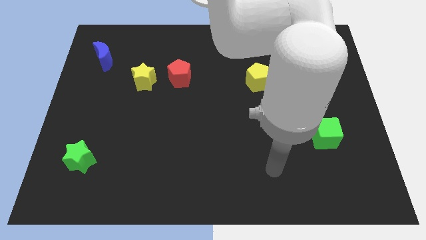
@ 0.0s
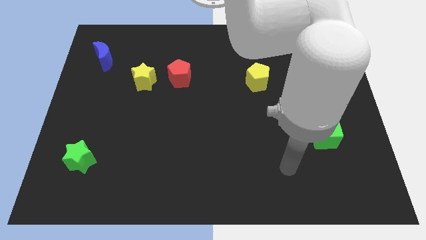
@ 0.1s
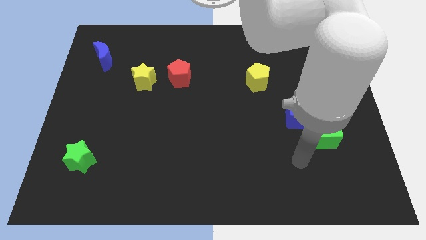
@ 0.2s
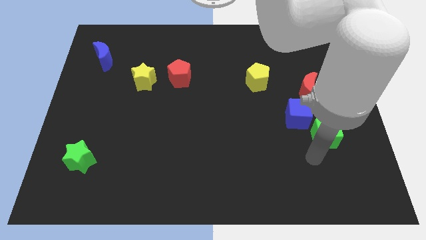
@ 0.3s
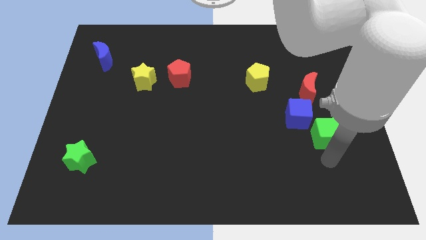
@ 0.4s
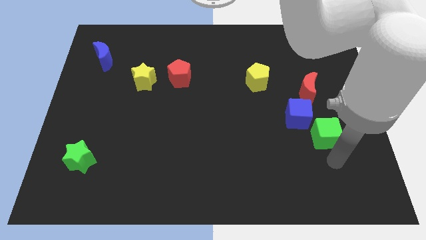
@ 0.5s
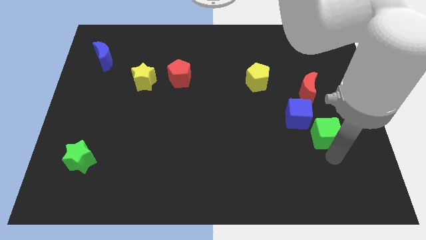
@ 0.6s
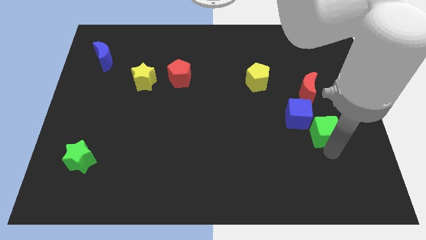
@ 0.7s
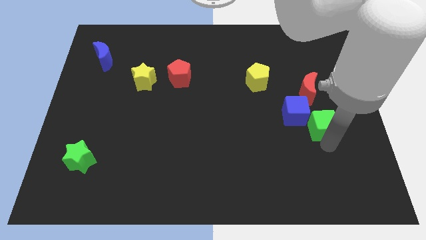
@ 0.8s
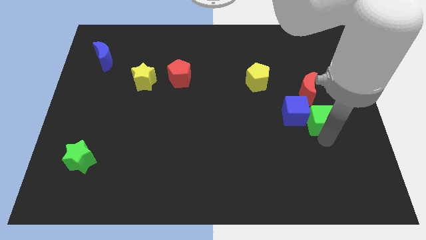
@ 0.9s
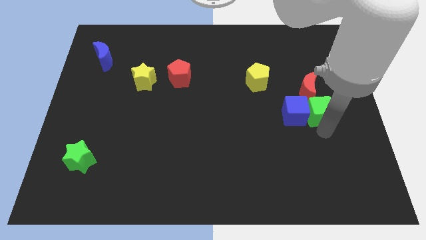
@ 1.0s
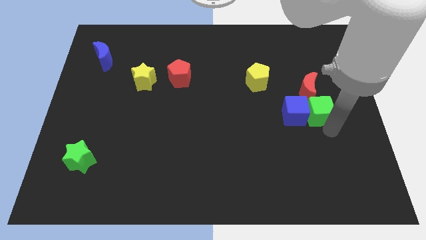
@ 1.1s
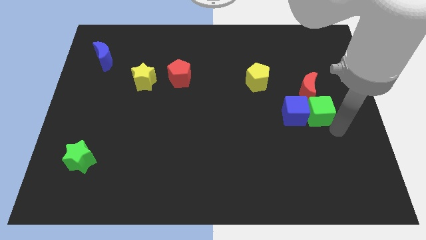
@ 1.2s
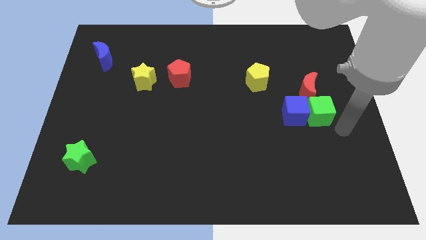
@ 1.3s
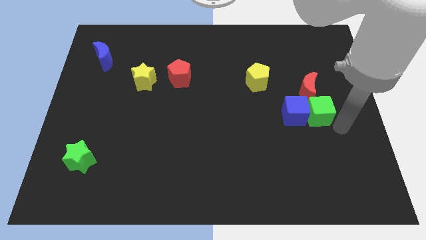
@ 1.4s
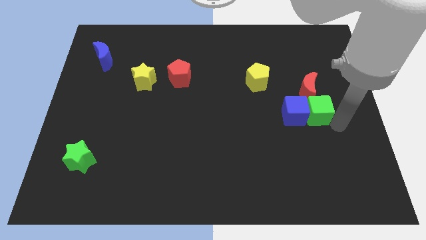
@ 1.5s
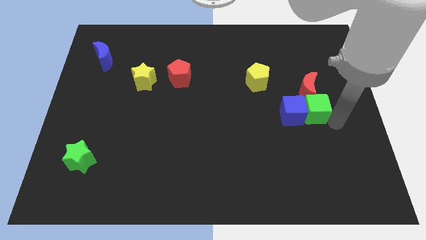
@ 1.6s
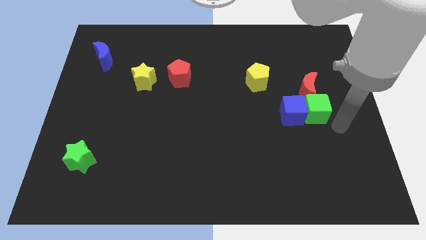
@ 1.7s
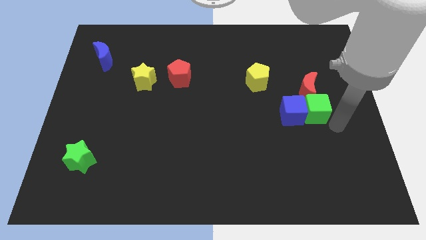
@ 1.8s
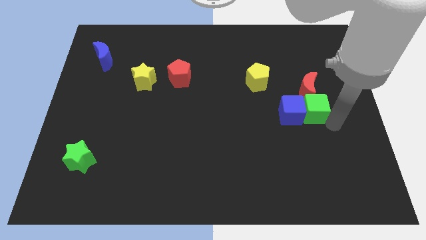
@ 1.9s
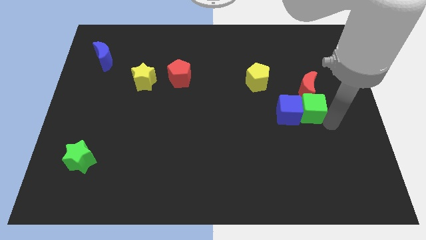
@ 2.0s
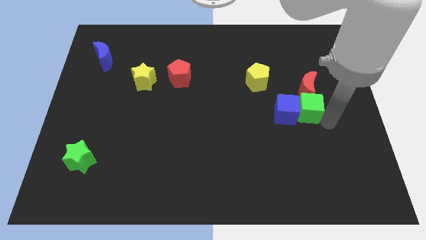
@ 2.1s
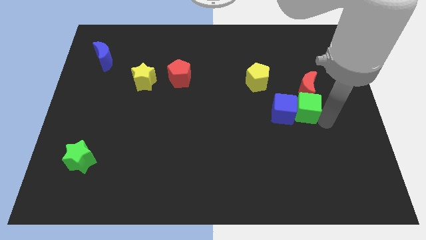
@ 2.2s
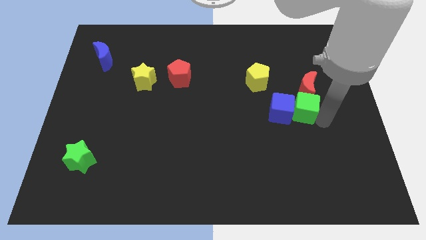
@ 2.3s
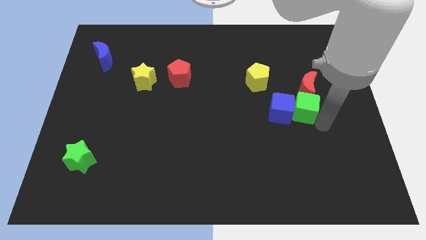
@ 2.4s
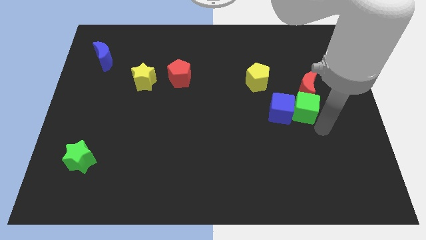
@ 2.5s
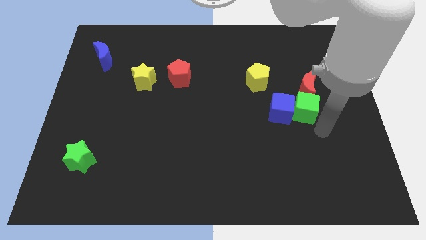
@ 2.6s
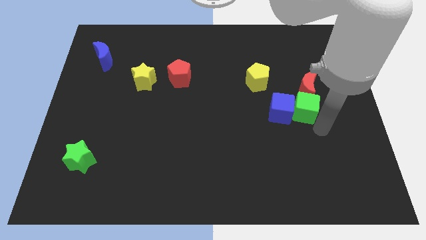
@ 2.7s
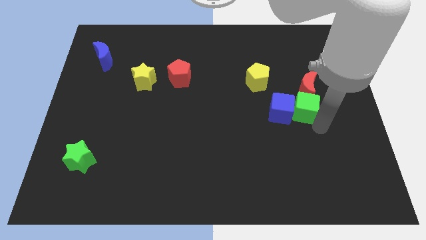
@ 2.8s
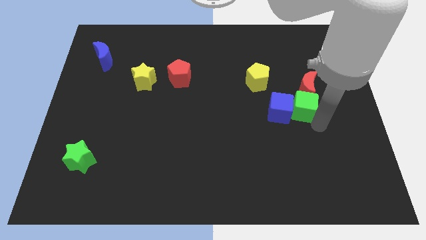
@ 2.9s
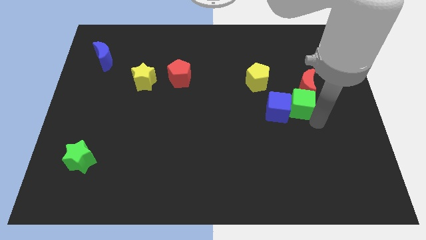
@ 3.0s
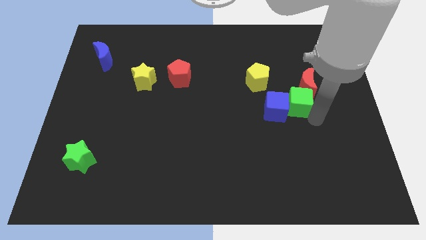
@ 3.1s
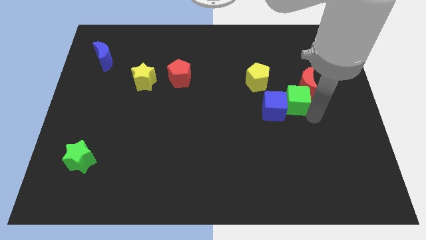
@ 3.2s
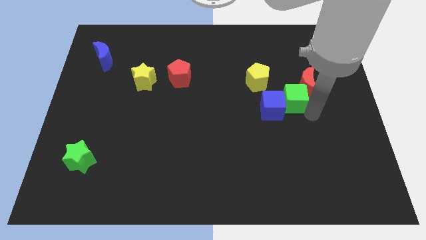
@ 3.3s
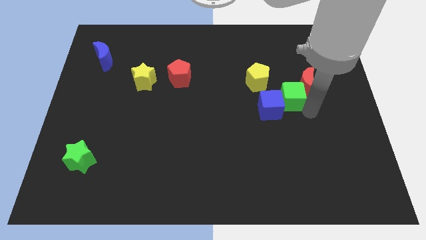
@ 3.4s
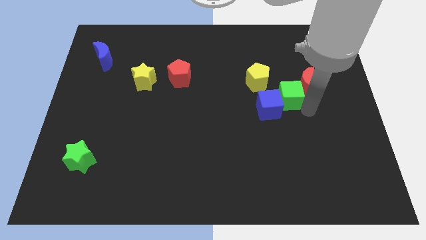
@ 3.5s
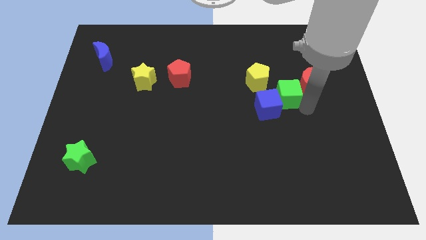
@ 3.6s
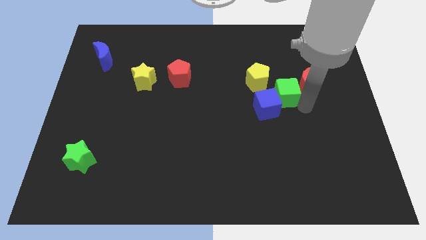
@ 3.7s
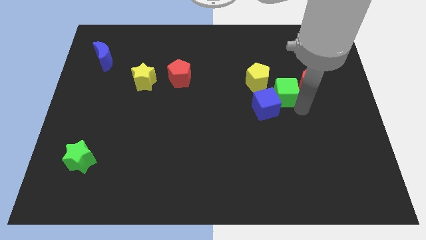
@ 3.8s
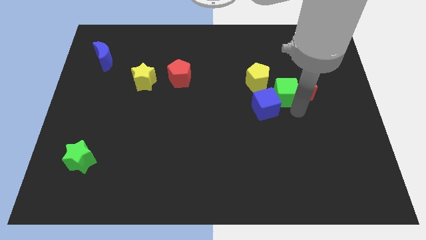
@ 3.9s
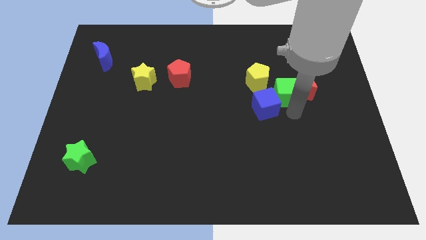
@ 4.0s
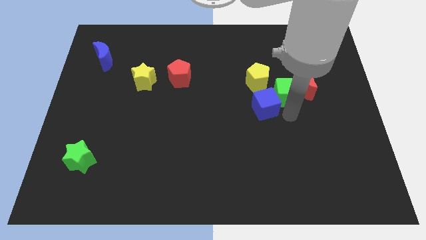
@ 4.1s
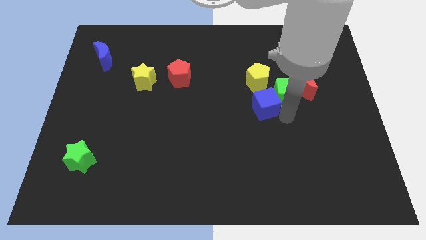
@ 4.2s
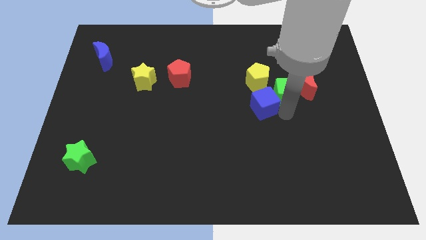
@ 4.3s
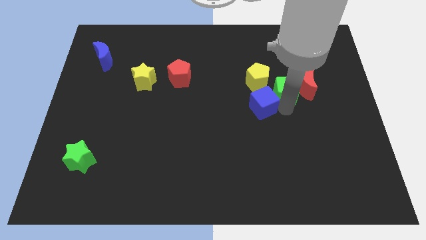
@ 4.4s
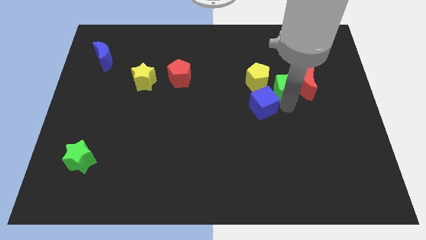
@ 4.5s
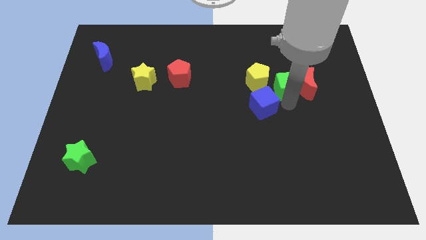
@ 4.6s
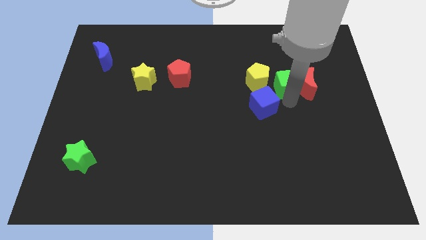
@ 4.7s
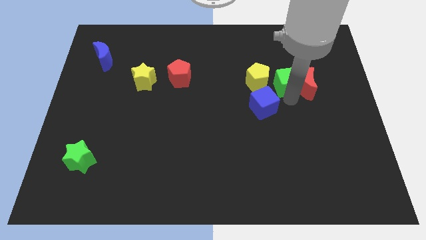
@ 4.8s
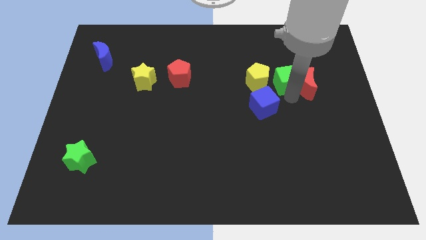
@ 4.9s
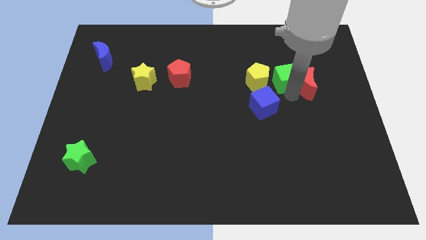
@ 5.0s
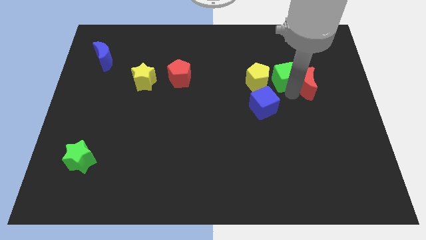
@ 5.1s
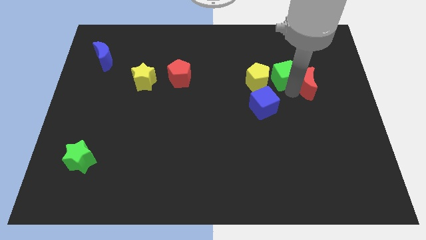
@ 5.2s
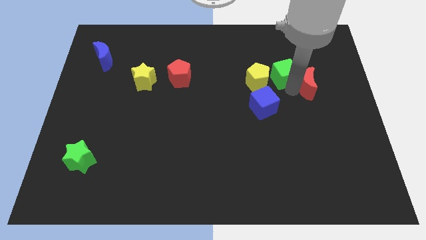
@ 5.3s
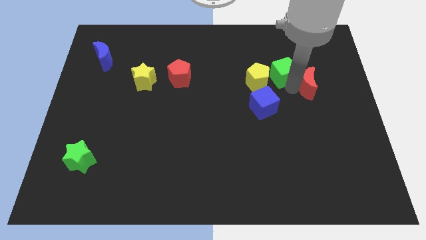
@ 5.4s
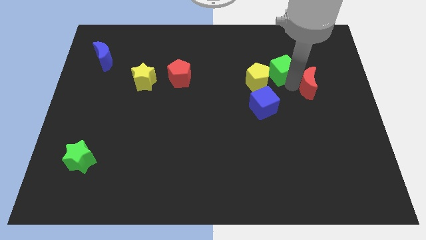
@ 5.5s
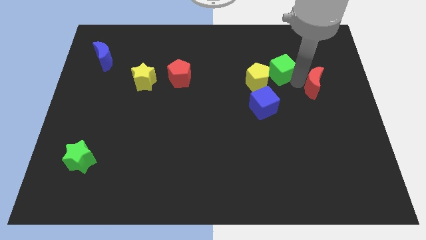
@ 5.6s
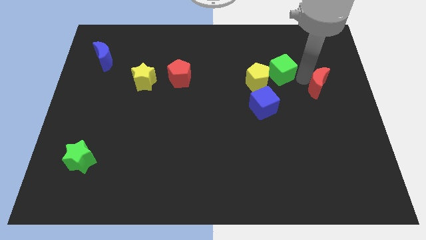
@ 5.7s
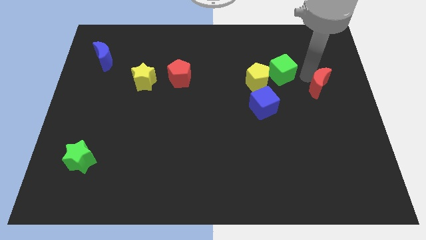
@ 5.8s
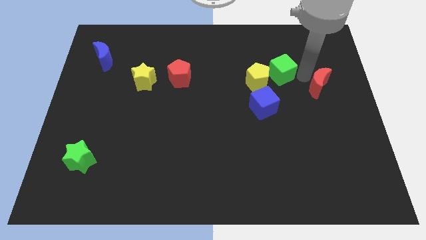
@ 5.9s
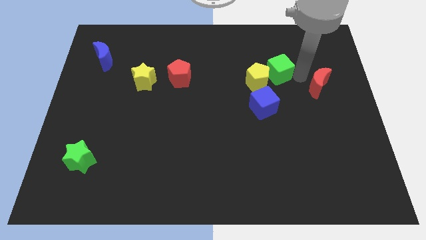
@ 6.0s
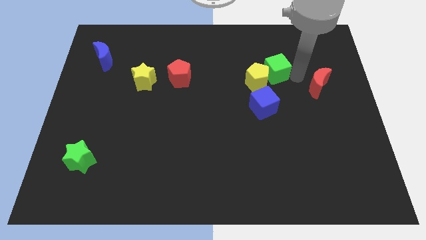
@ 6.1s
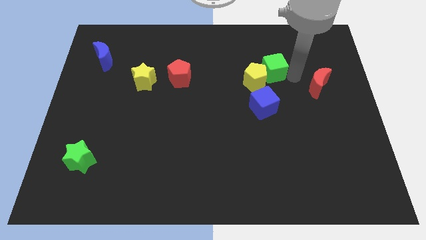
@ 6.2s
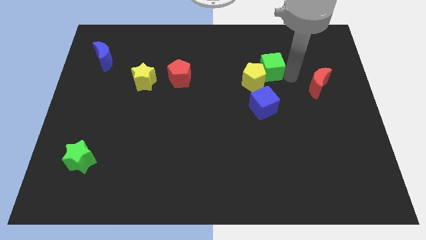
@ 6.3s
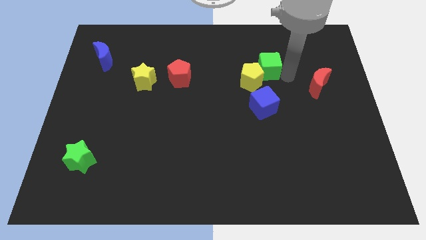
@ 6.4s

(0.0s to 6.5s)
push the green cube upwards and to the left

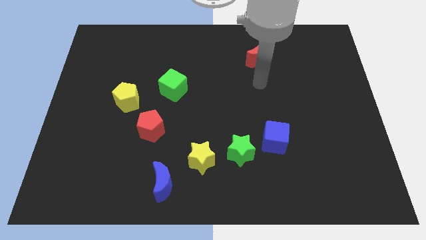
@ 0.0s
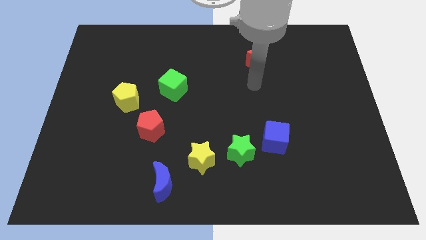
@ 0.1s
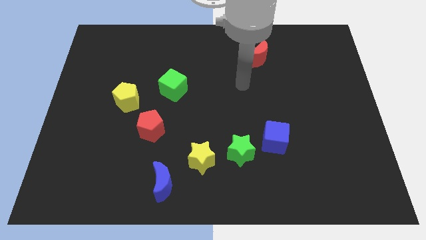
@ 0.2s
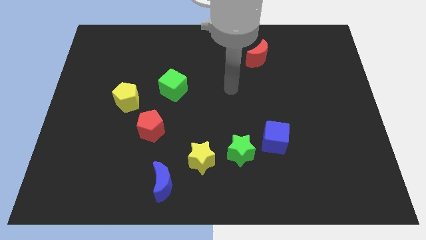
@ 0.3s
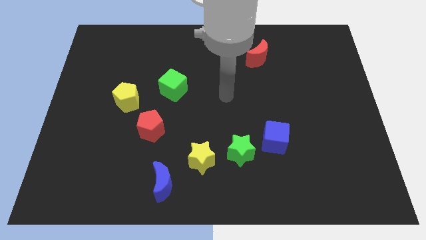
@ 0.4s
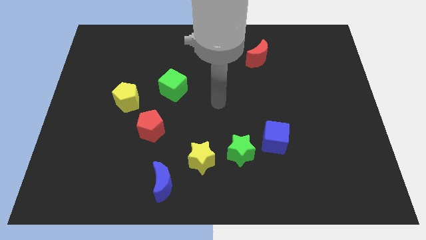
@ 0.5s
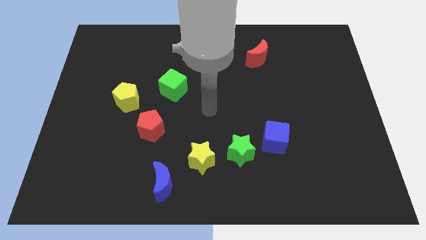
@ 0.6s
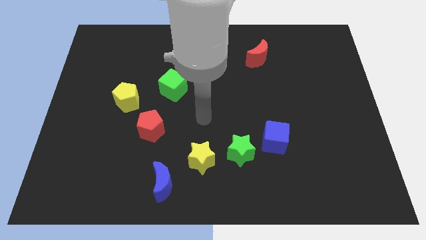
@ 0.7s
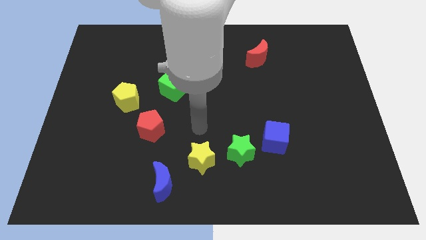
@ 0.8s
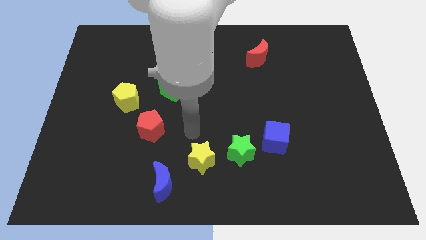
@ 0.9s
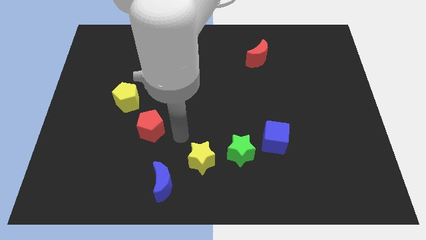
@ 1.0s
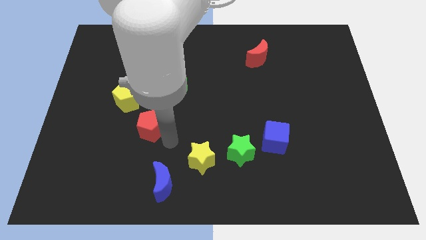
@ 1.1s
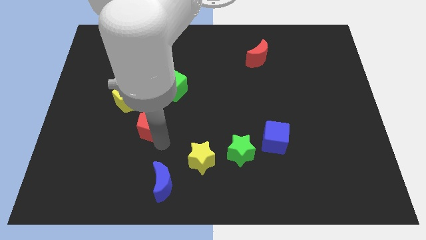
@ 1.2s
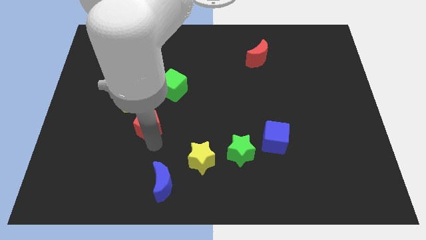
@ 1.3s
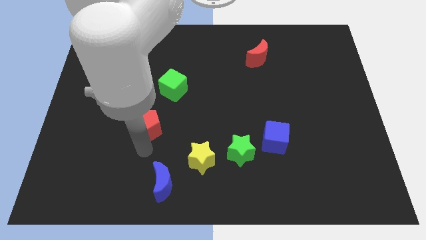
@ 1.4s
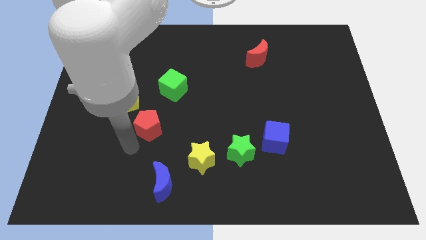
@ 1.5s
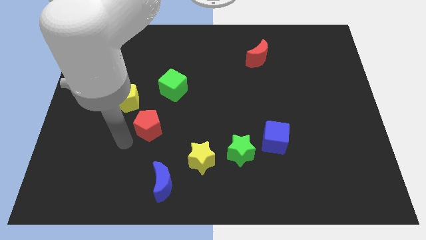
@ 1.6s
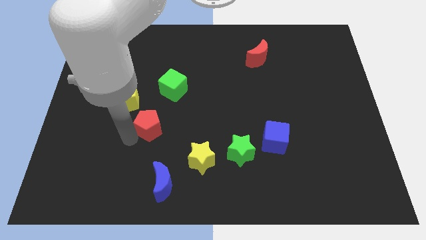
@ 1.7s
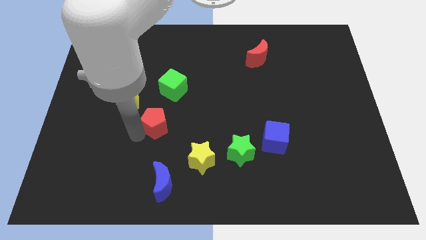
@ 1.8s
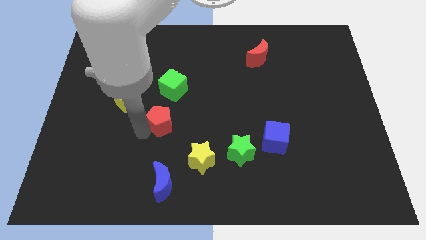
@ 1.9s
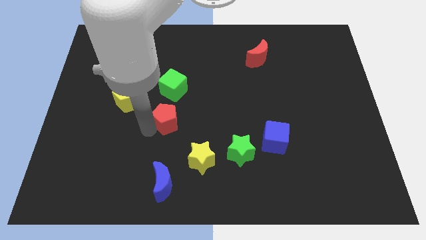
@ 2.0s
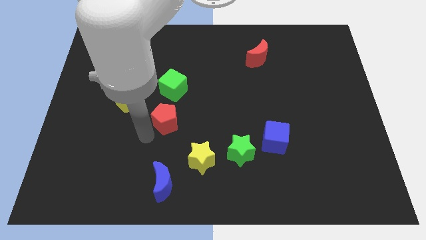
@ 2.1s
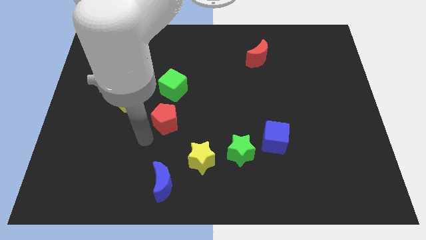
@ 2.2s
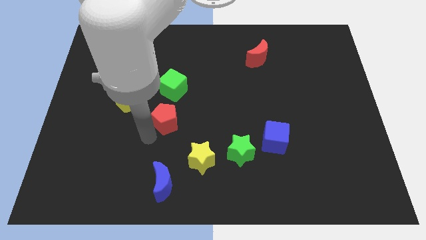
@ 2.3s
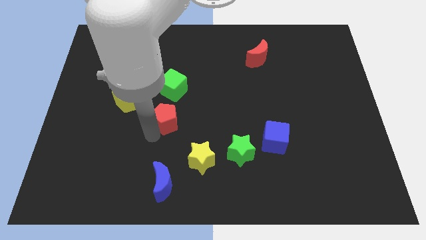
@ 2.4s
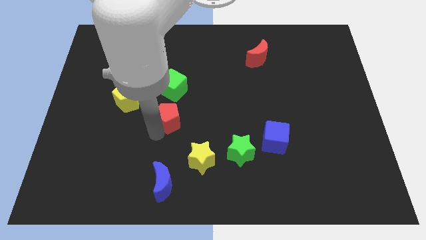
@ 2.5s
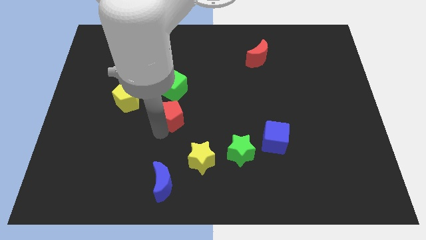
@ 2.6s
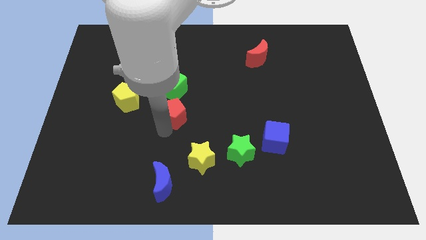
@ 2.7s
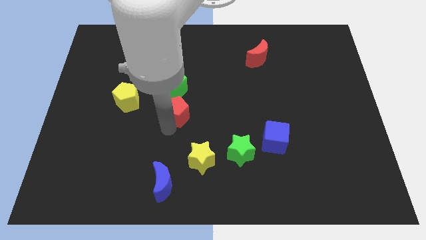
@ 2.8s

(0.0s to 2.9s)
move the red pentagon diagonally up and right a little bit
